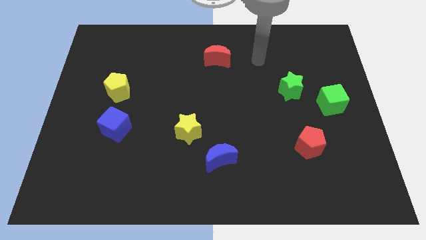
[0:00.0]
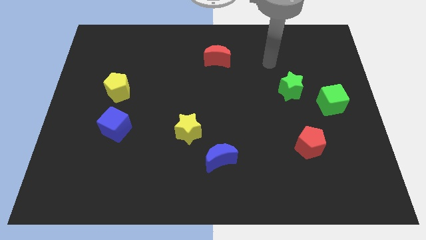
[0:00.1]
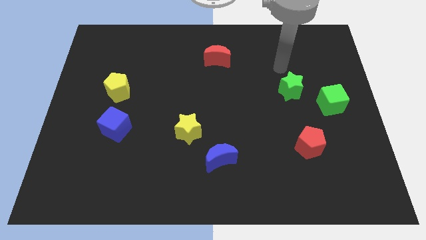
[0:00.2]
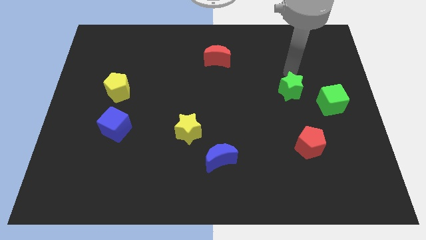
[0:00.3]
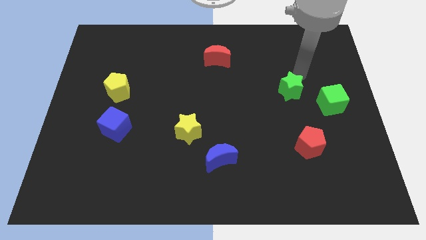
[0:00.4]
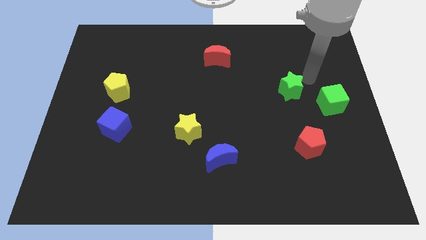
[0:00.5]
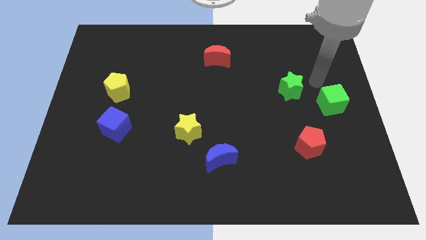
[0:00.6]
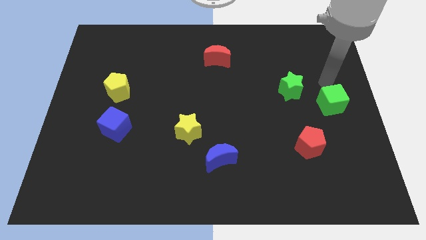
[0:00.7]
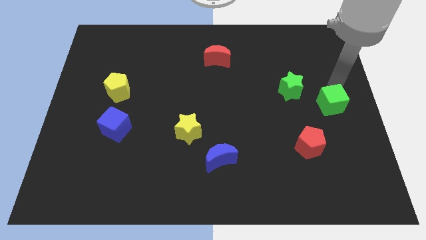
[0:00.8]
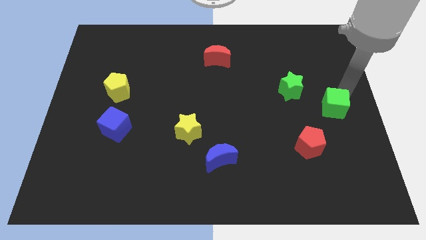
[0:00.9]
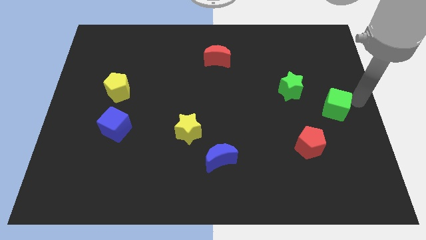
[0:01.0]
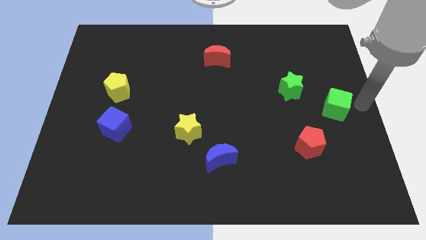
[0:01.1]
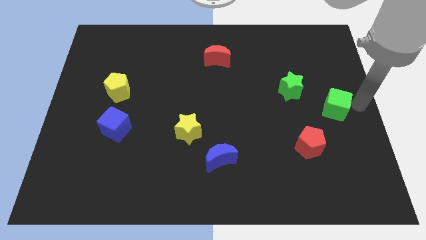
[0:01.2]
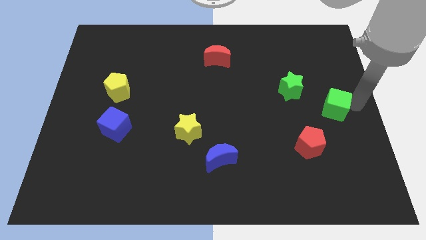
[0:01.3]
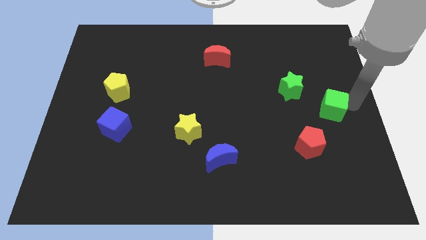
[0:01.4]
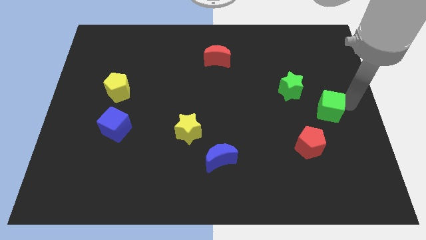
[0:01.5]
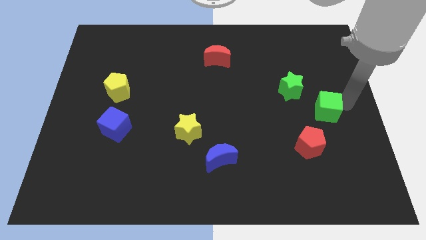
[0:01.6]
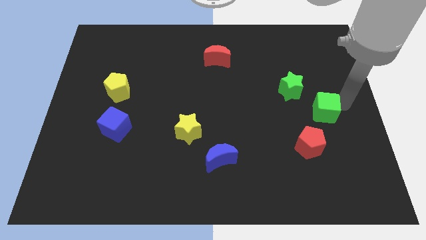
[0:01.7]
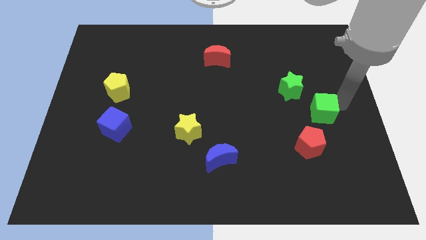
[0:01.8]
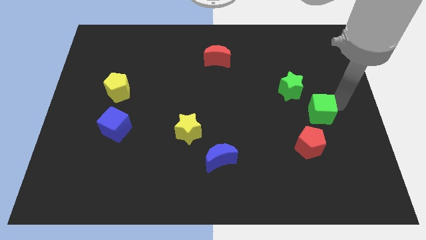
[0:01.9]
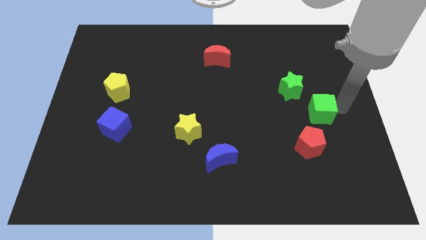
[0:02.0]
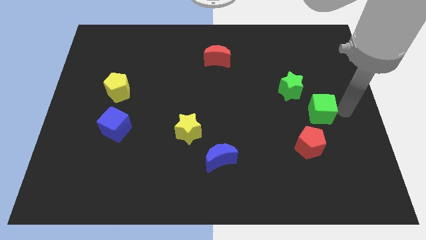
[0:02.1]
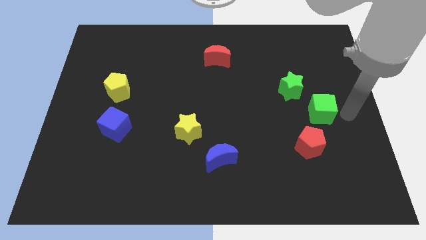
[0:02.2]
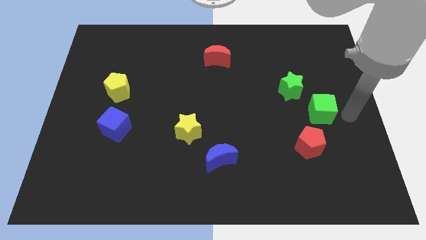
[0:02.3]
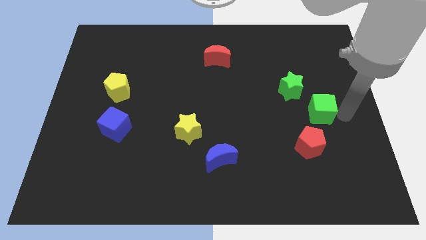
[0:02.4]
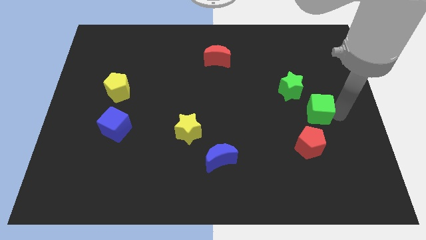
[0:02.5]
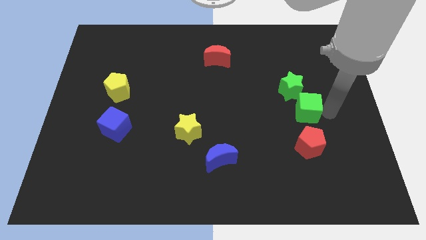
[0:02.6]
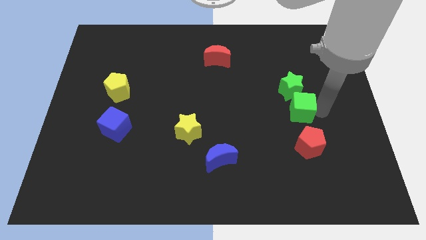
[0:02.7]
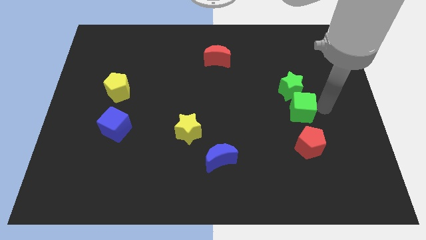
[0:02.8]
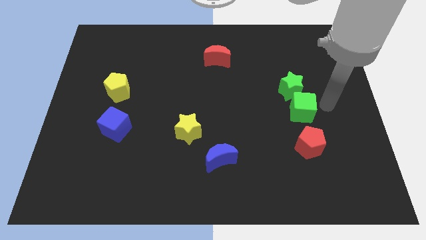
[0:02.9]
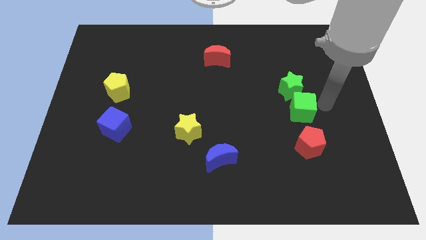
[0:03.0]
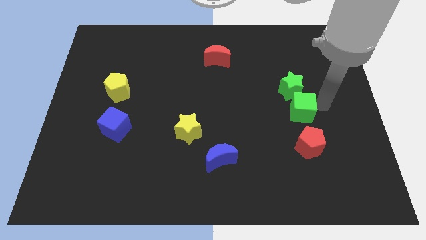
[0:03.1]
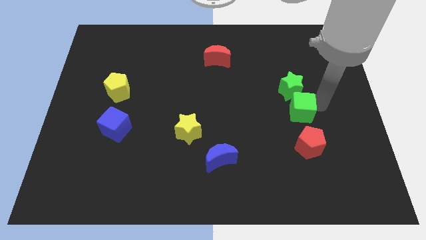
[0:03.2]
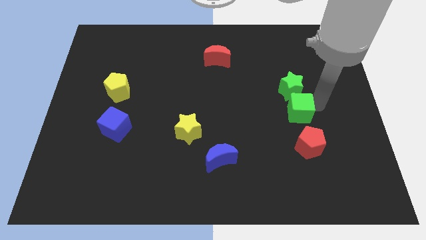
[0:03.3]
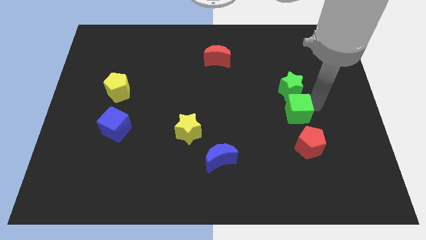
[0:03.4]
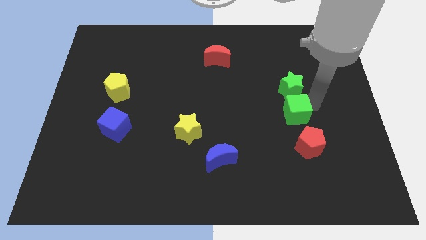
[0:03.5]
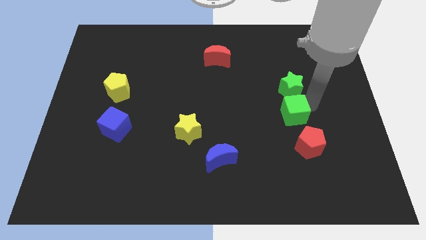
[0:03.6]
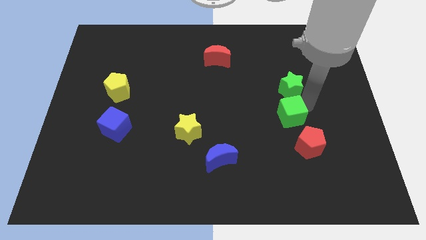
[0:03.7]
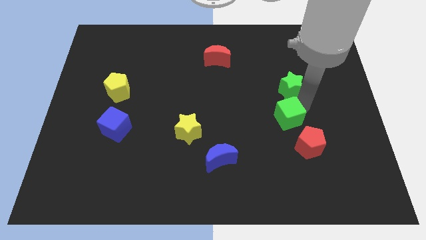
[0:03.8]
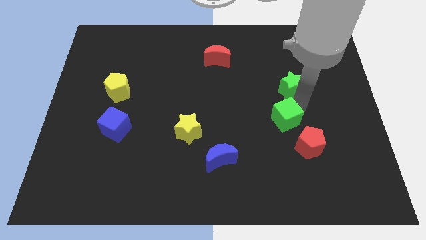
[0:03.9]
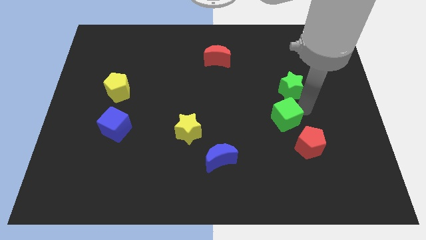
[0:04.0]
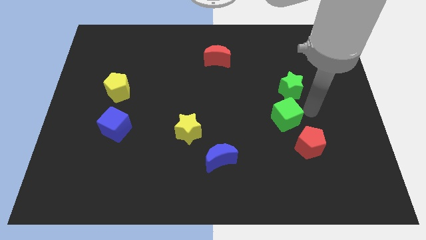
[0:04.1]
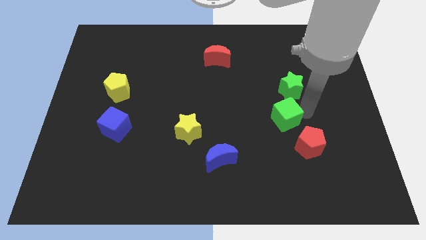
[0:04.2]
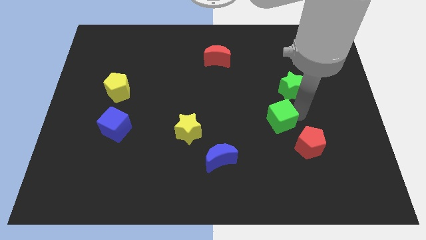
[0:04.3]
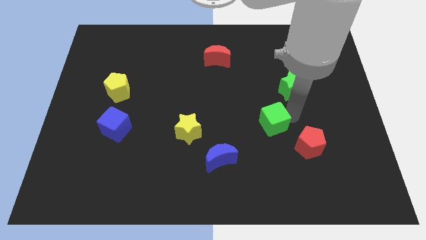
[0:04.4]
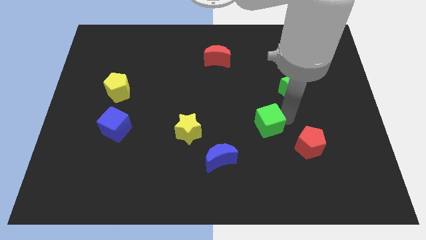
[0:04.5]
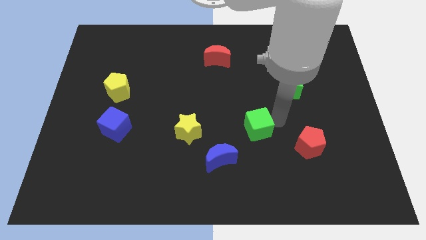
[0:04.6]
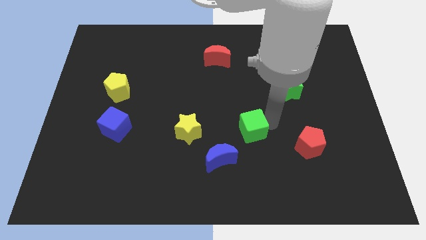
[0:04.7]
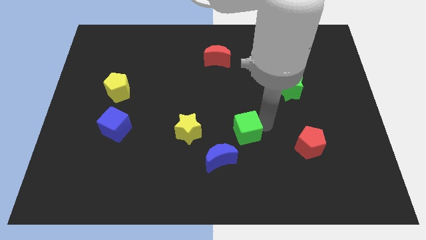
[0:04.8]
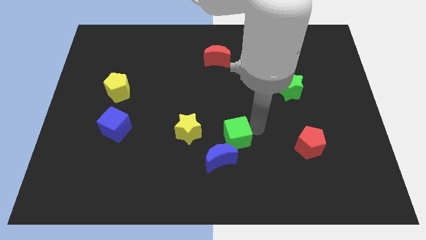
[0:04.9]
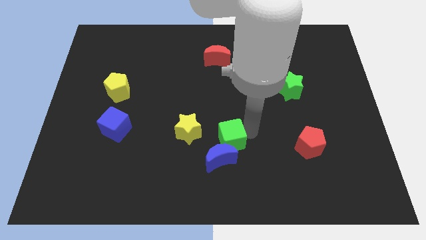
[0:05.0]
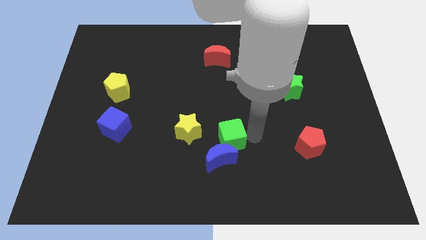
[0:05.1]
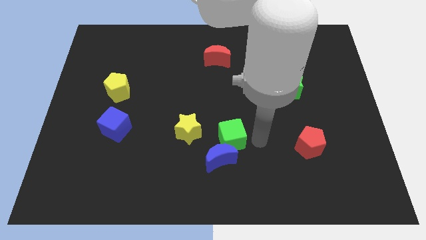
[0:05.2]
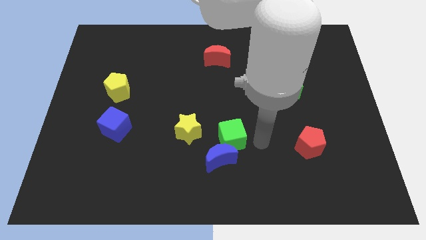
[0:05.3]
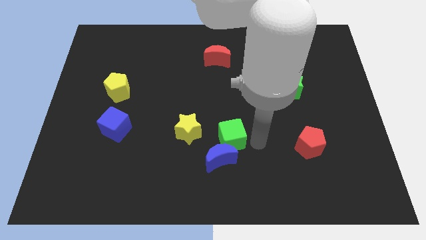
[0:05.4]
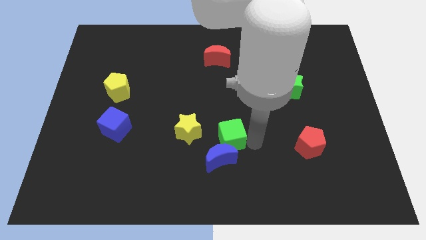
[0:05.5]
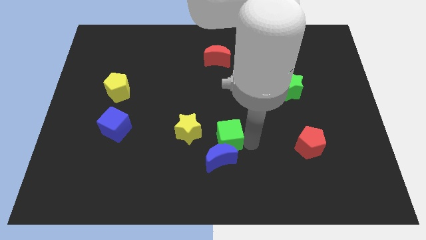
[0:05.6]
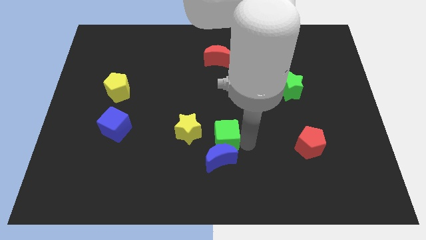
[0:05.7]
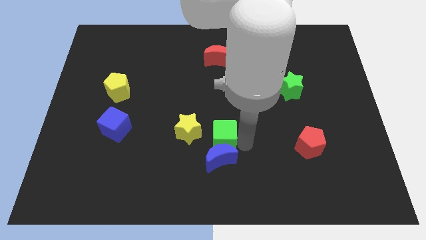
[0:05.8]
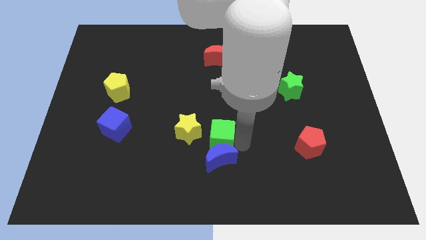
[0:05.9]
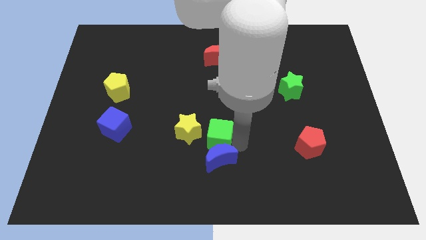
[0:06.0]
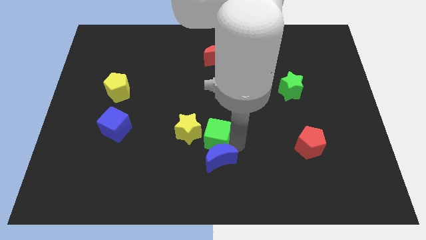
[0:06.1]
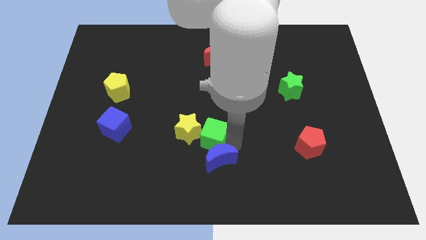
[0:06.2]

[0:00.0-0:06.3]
put the green cube close to the yellow star

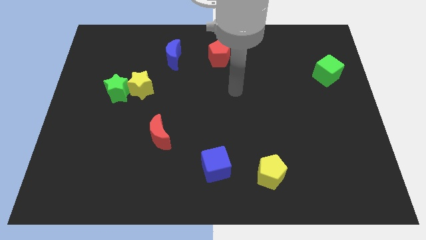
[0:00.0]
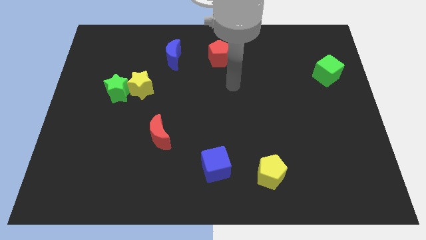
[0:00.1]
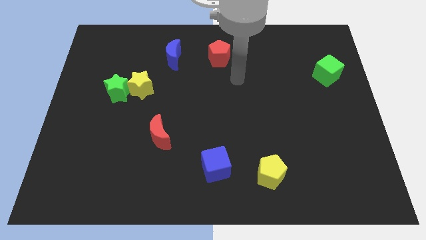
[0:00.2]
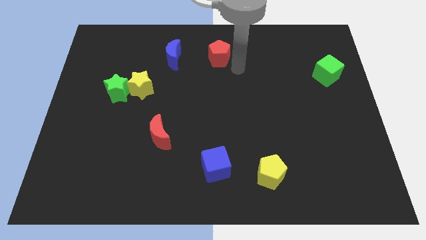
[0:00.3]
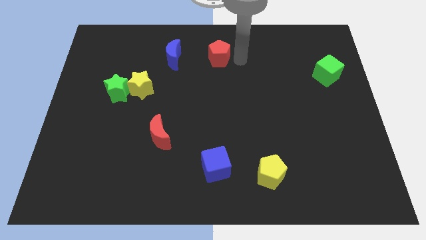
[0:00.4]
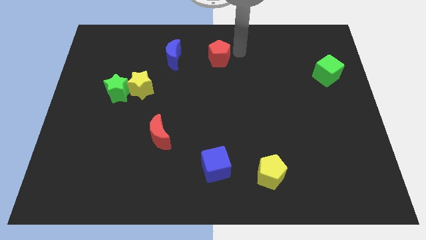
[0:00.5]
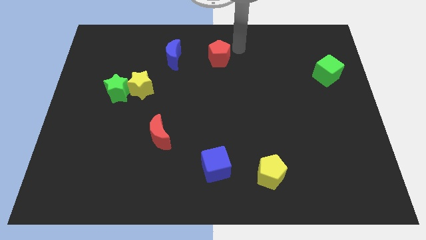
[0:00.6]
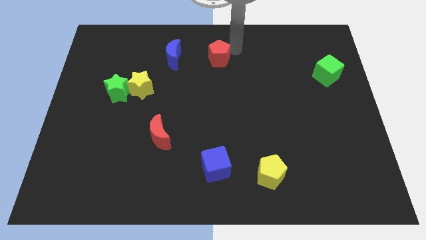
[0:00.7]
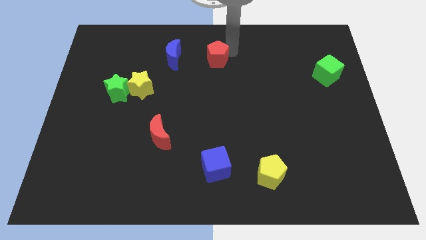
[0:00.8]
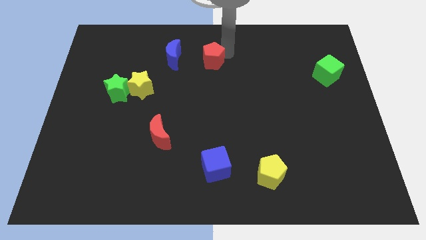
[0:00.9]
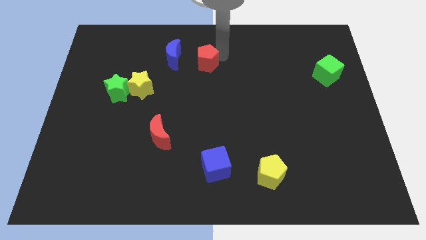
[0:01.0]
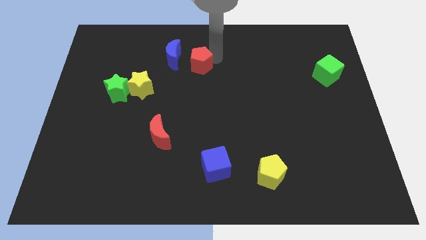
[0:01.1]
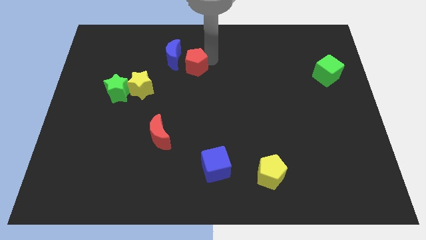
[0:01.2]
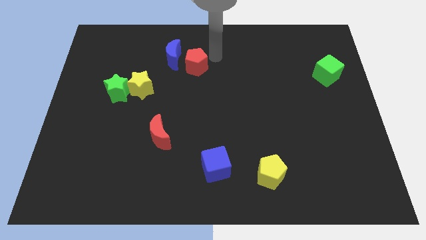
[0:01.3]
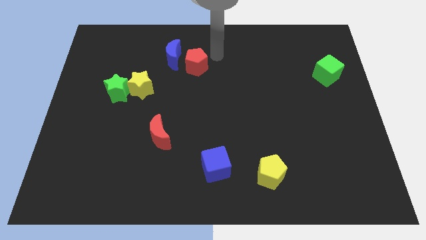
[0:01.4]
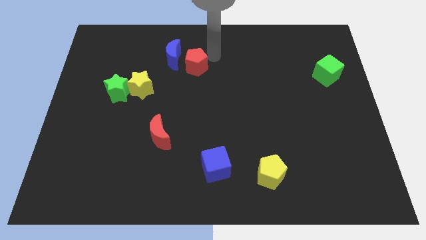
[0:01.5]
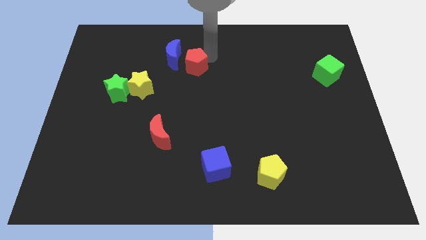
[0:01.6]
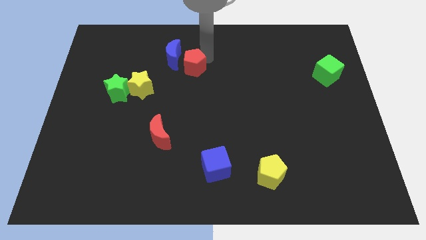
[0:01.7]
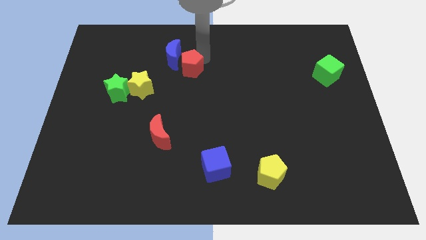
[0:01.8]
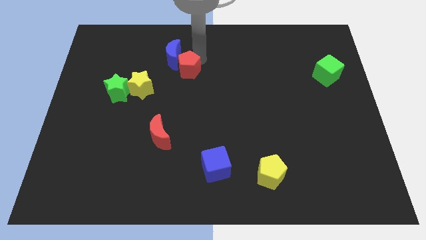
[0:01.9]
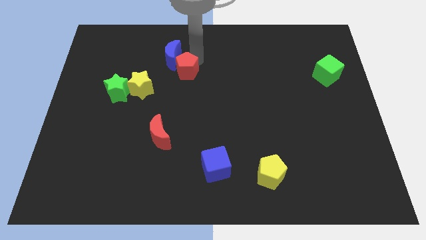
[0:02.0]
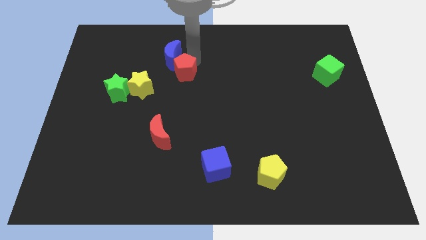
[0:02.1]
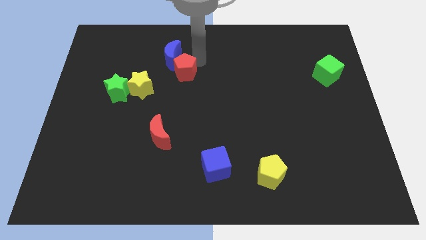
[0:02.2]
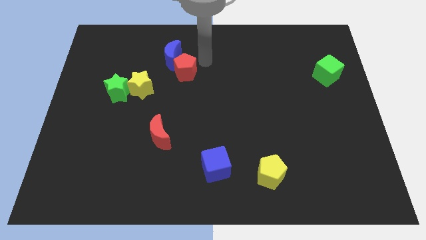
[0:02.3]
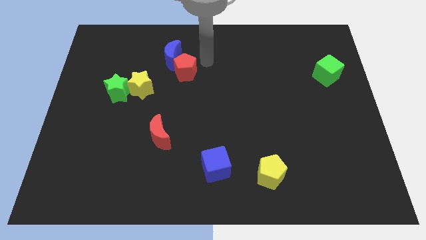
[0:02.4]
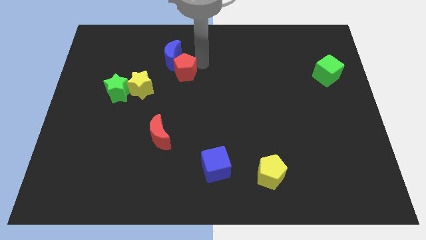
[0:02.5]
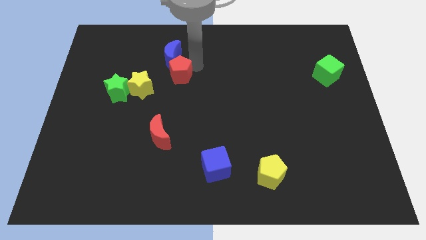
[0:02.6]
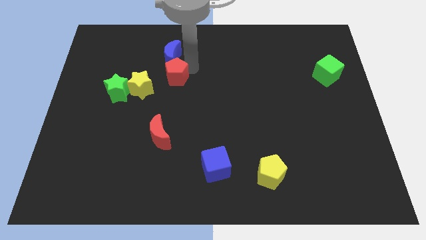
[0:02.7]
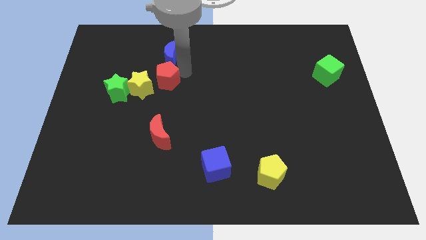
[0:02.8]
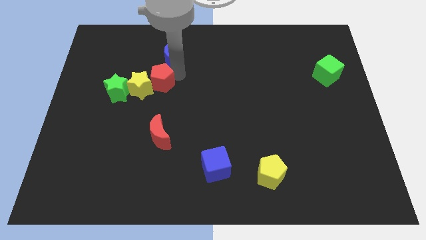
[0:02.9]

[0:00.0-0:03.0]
slide the red pentagon next to the yellow star
